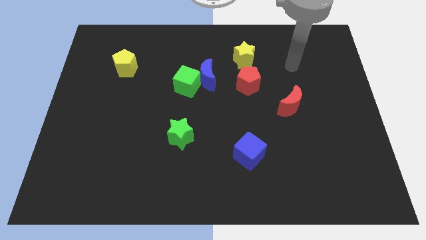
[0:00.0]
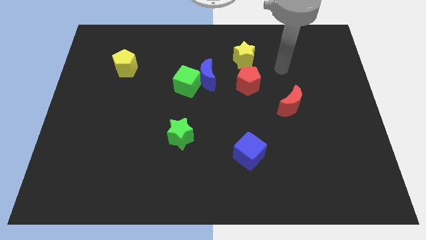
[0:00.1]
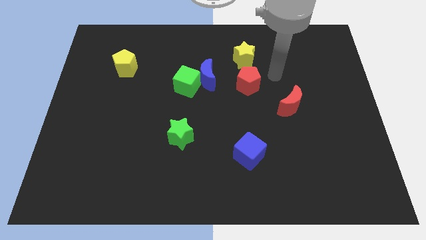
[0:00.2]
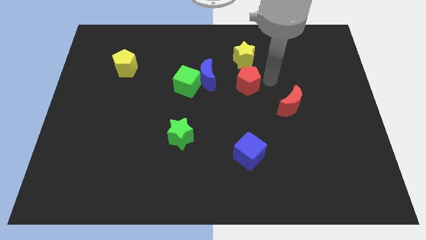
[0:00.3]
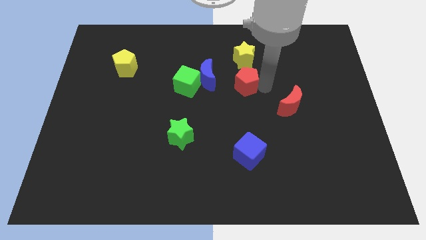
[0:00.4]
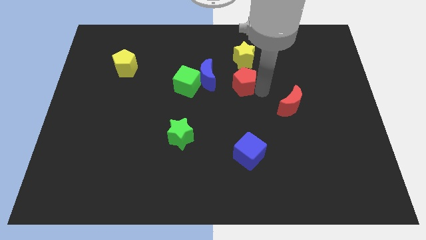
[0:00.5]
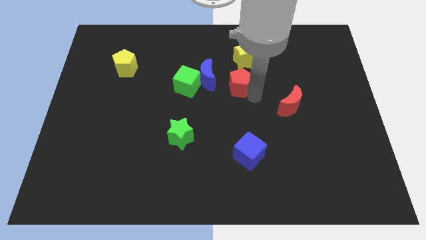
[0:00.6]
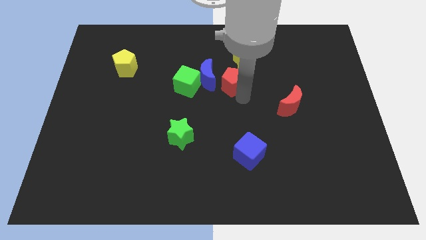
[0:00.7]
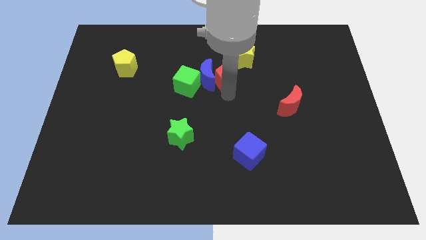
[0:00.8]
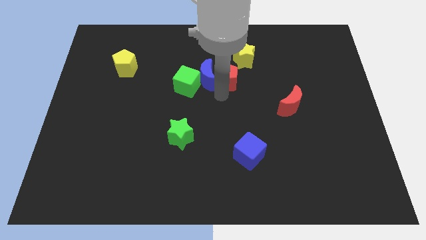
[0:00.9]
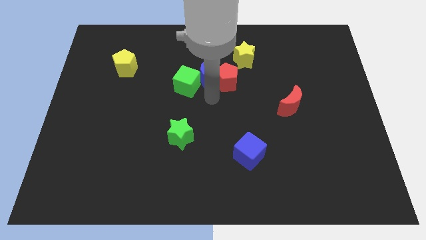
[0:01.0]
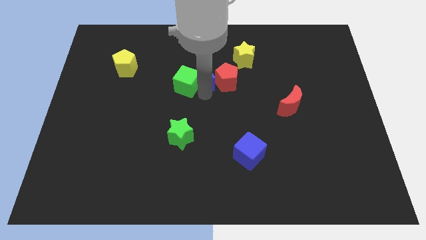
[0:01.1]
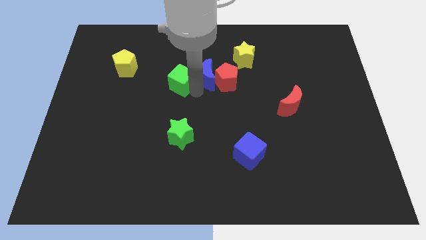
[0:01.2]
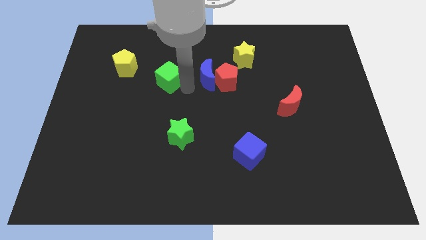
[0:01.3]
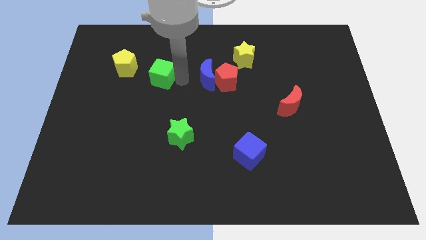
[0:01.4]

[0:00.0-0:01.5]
separate the blue moon from the green cube

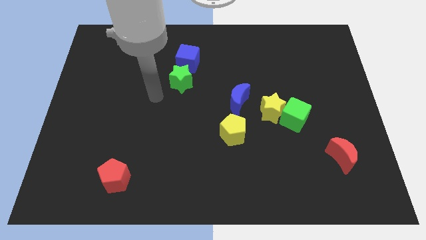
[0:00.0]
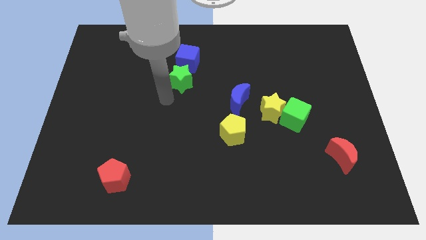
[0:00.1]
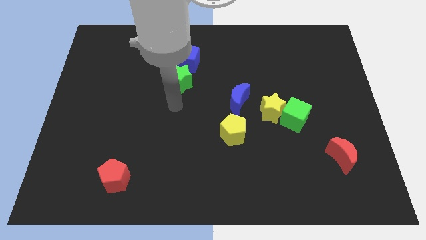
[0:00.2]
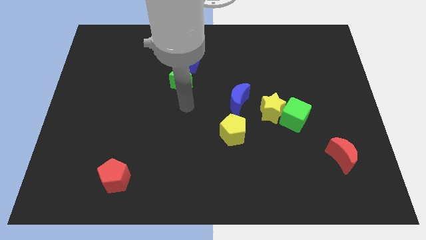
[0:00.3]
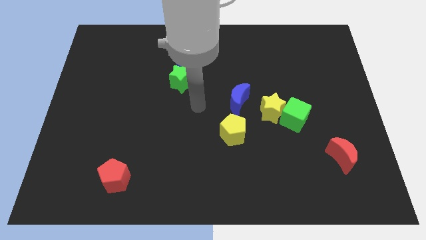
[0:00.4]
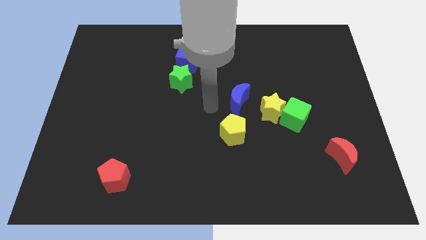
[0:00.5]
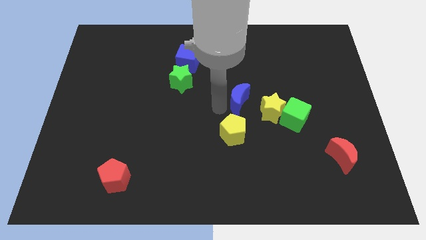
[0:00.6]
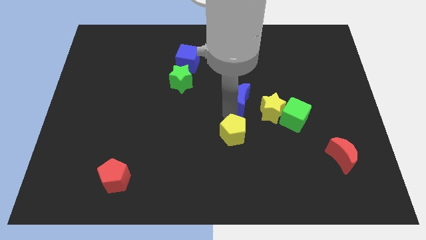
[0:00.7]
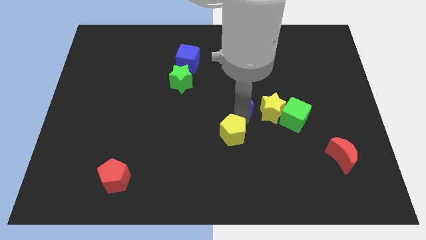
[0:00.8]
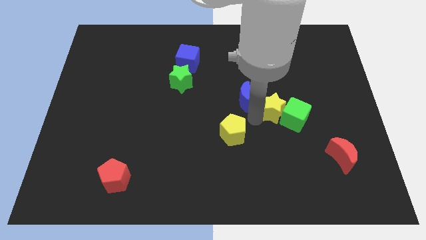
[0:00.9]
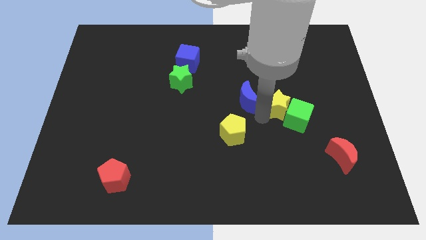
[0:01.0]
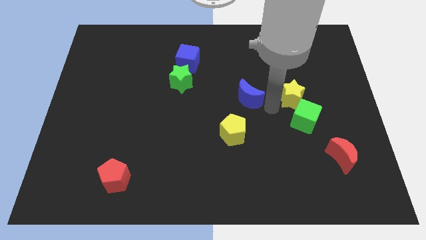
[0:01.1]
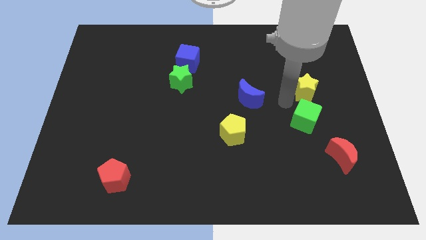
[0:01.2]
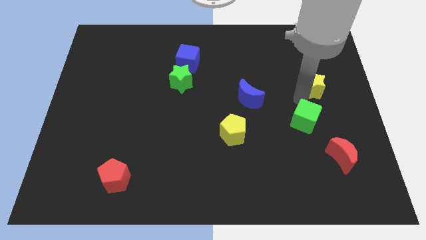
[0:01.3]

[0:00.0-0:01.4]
separate the green cube from the yellow star

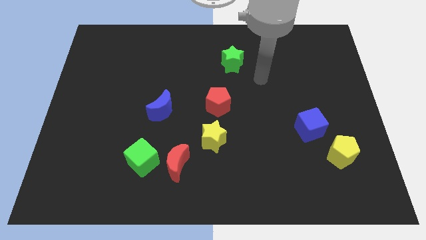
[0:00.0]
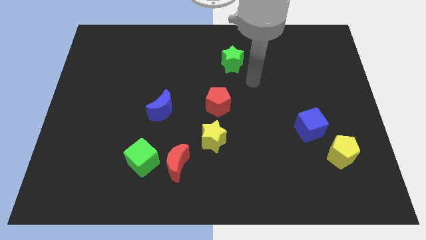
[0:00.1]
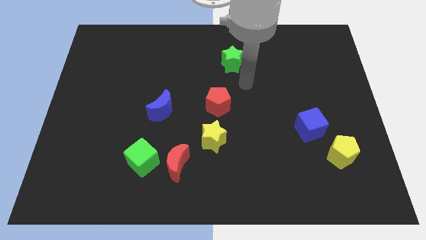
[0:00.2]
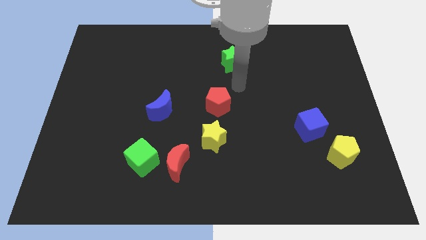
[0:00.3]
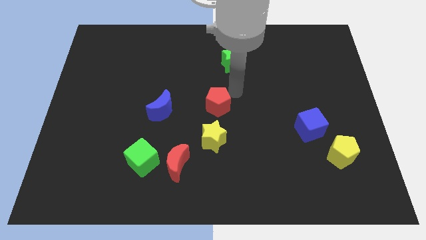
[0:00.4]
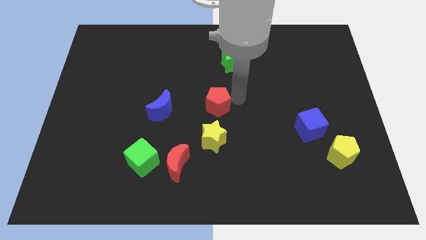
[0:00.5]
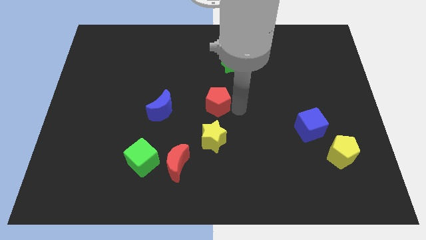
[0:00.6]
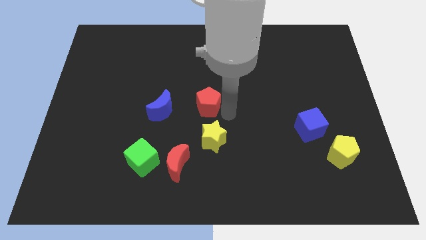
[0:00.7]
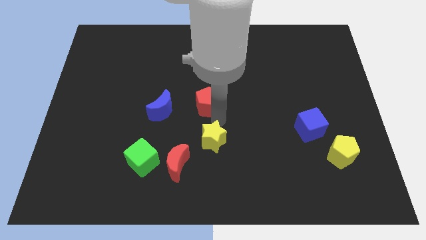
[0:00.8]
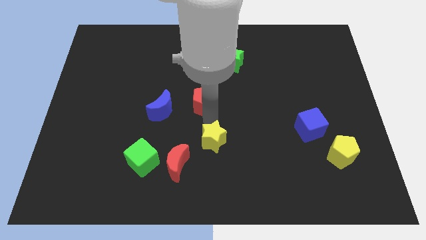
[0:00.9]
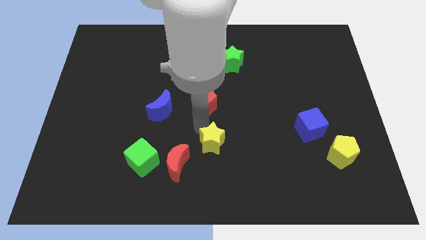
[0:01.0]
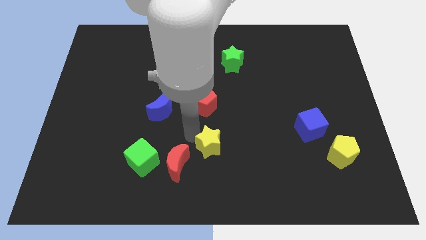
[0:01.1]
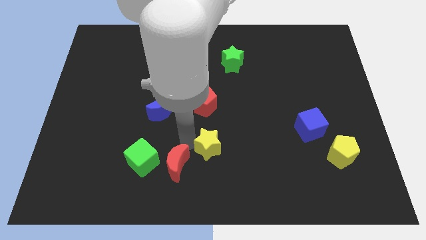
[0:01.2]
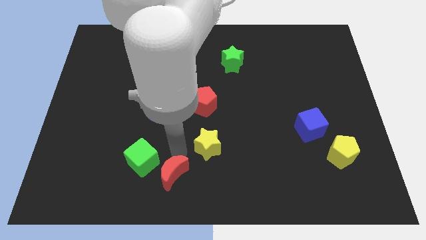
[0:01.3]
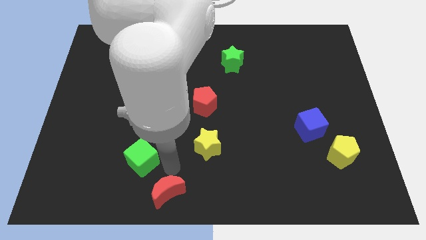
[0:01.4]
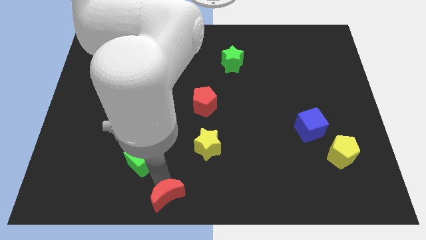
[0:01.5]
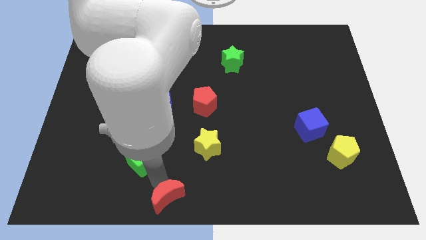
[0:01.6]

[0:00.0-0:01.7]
move the green cube away from the red moon

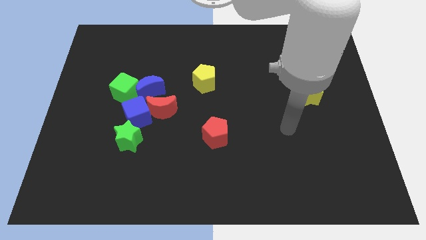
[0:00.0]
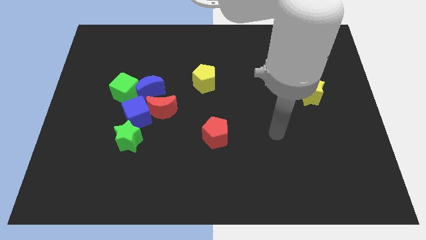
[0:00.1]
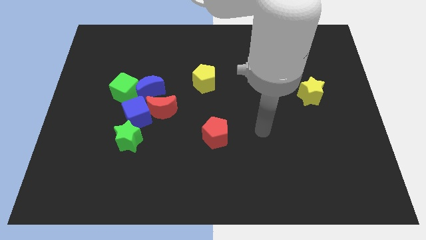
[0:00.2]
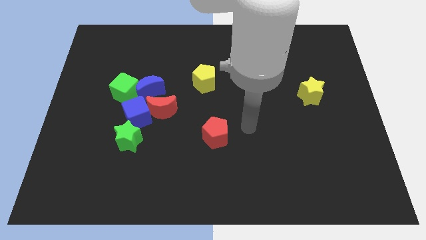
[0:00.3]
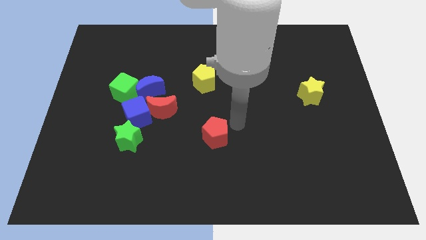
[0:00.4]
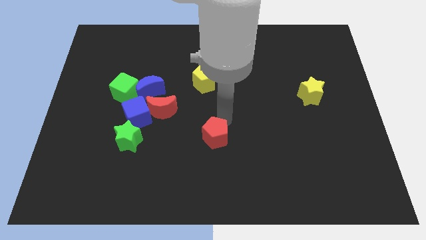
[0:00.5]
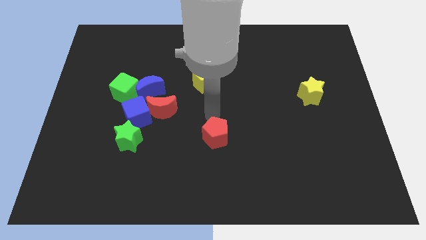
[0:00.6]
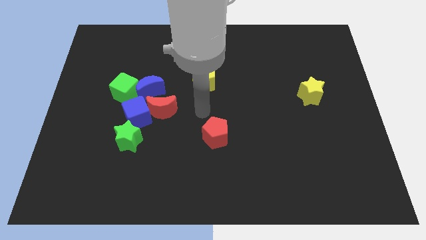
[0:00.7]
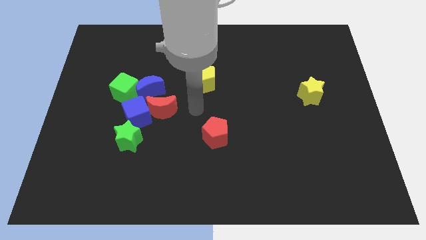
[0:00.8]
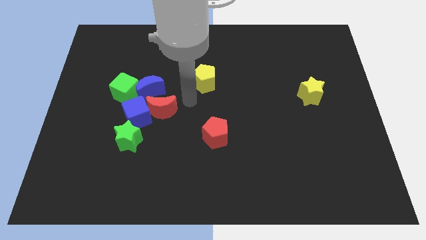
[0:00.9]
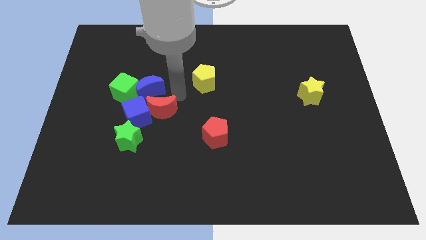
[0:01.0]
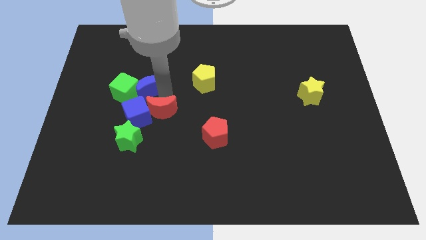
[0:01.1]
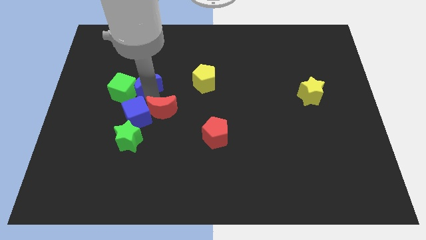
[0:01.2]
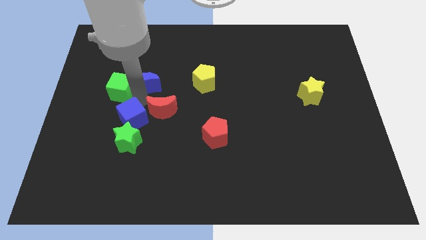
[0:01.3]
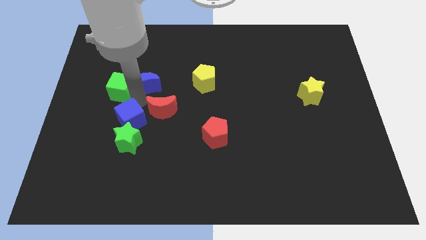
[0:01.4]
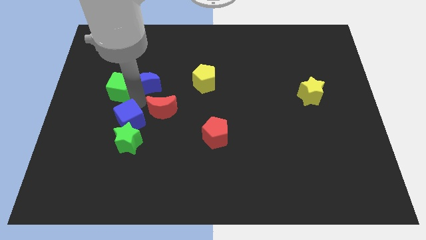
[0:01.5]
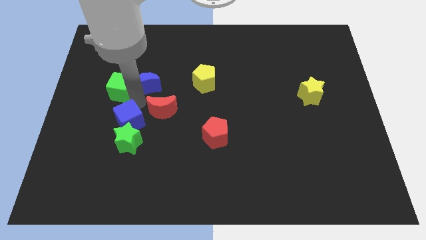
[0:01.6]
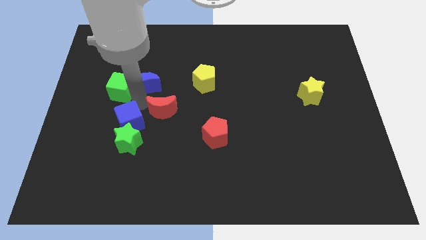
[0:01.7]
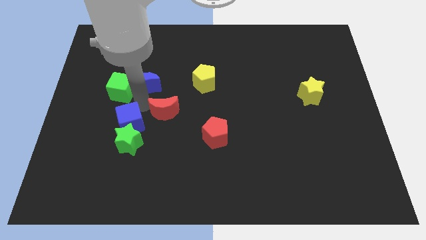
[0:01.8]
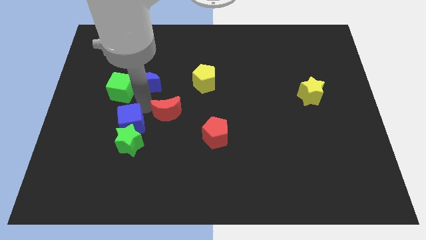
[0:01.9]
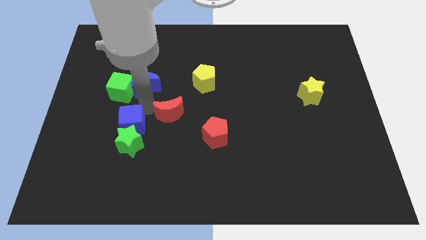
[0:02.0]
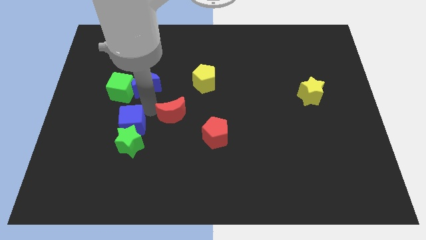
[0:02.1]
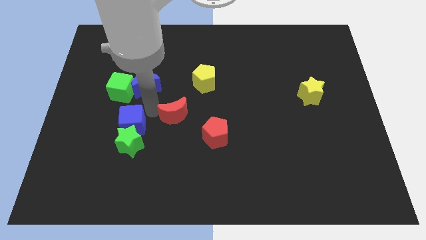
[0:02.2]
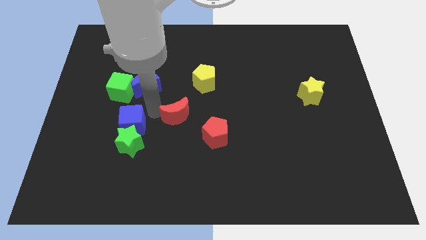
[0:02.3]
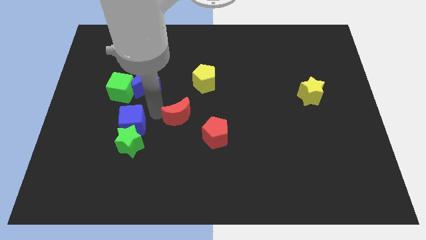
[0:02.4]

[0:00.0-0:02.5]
move the red moon away from the blue cube and blue moon

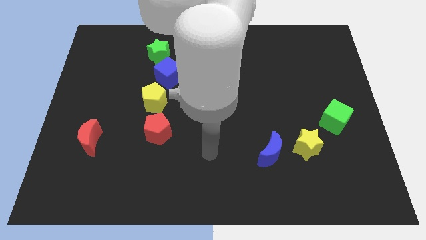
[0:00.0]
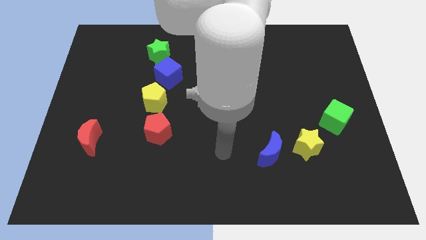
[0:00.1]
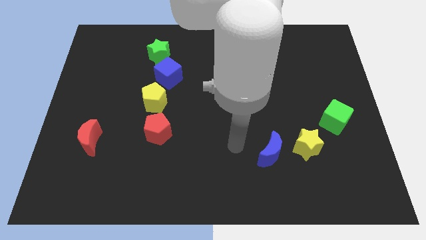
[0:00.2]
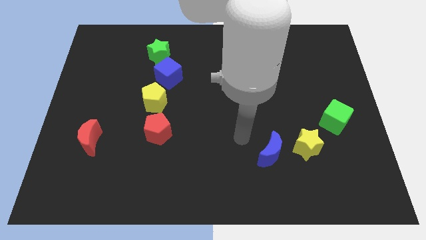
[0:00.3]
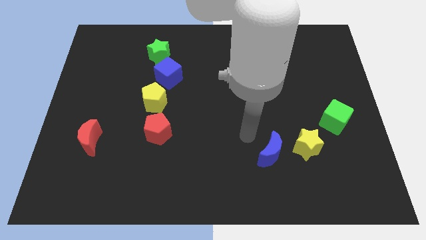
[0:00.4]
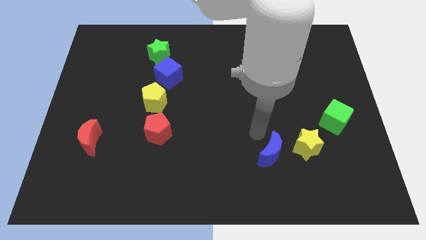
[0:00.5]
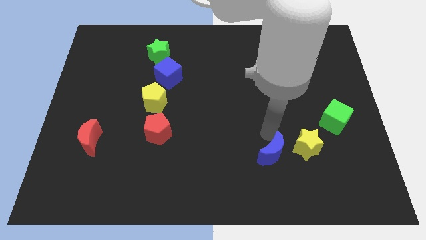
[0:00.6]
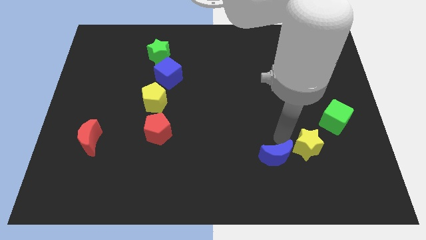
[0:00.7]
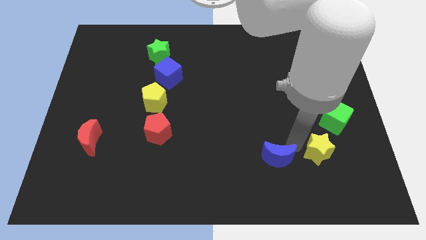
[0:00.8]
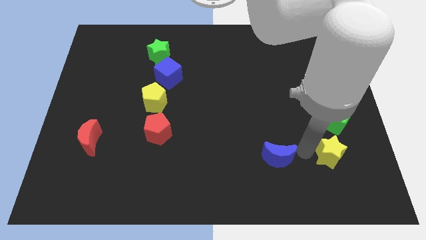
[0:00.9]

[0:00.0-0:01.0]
separate the blue moon from the yellow star

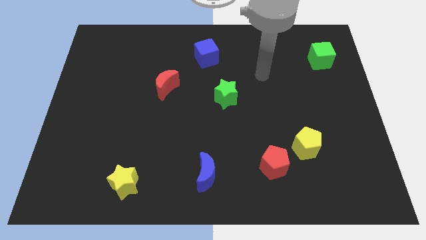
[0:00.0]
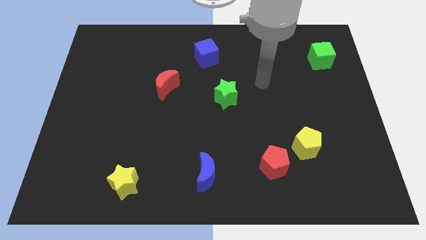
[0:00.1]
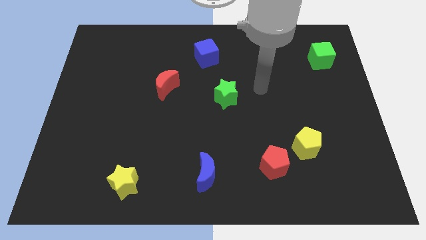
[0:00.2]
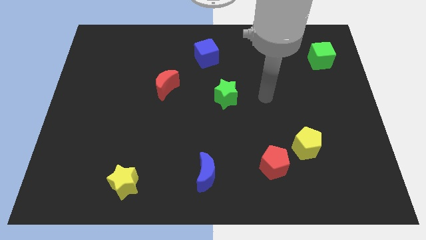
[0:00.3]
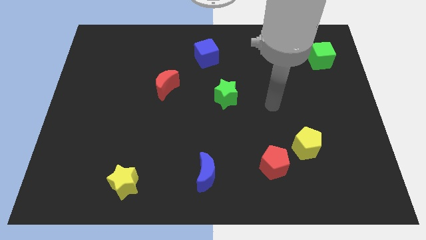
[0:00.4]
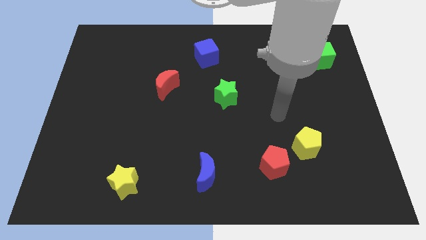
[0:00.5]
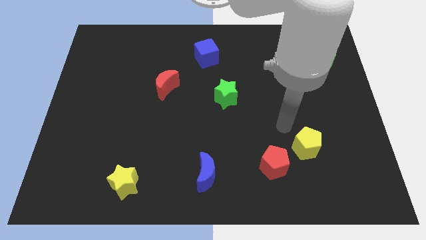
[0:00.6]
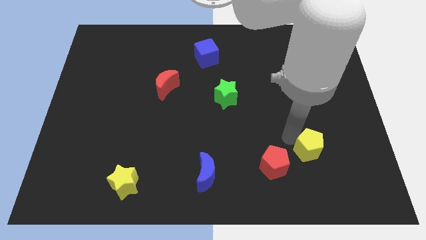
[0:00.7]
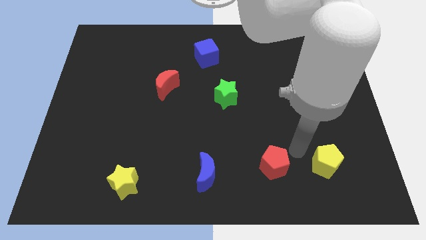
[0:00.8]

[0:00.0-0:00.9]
pull the red pentagon apart from the yellow pentagon

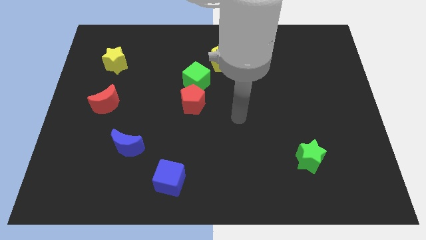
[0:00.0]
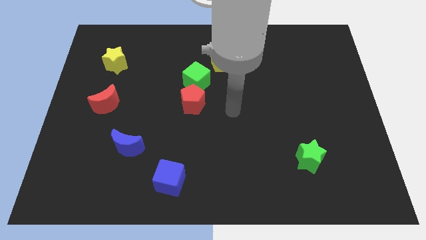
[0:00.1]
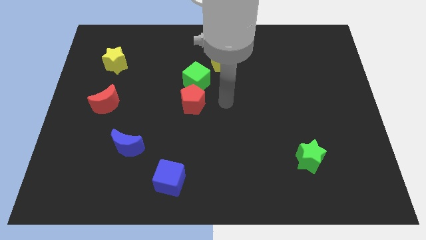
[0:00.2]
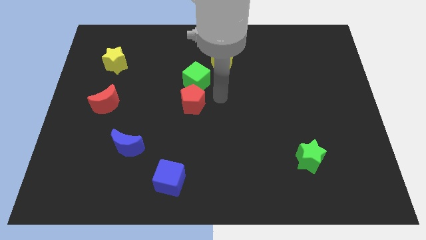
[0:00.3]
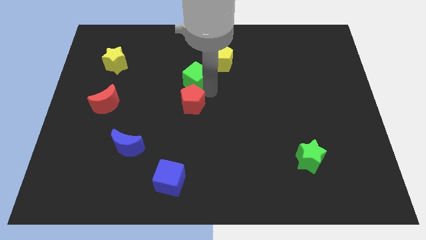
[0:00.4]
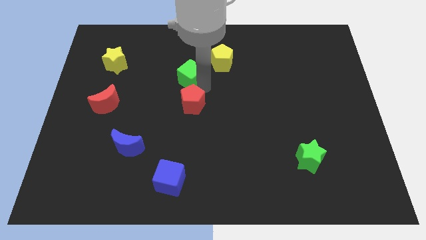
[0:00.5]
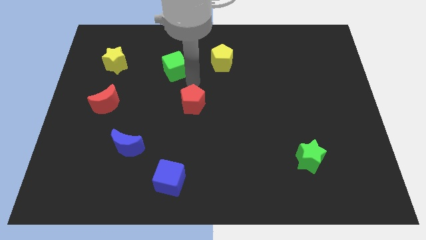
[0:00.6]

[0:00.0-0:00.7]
move the red pentagon away from the green cube
